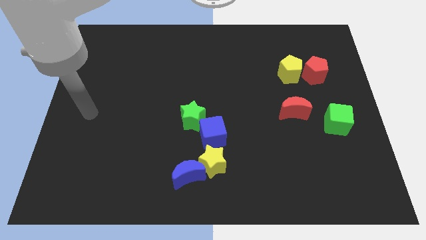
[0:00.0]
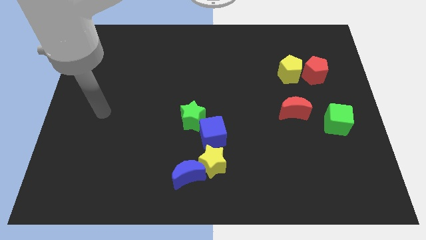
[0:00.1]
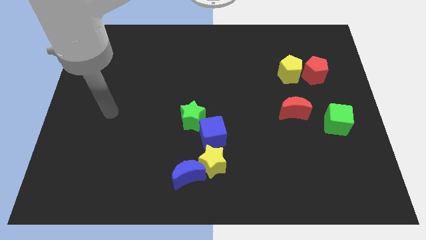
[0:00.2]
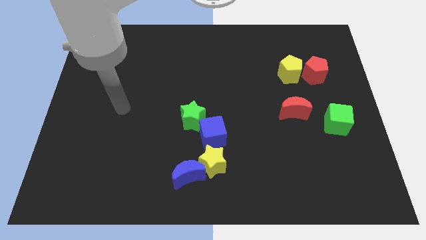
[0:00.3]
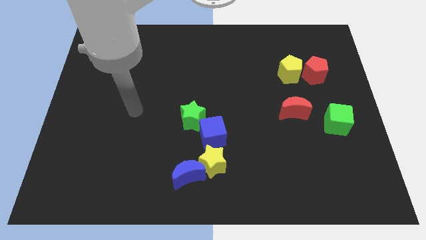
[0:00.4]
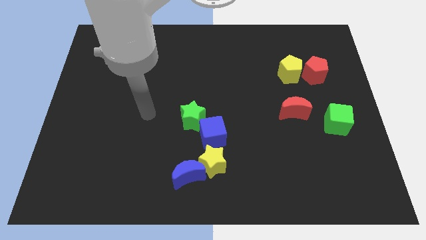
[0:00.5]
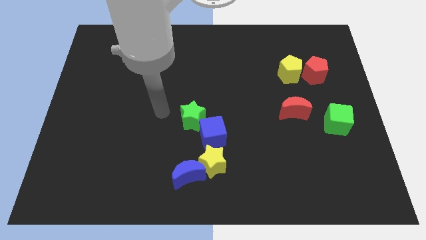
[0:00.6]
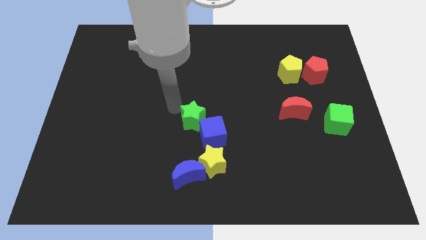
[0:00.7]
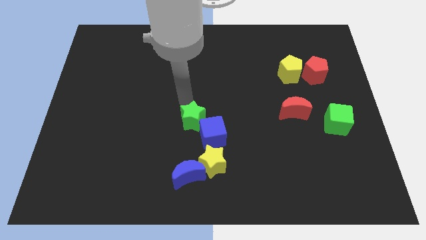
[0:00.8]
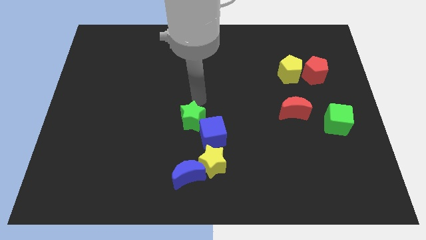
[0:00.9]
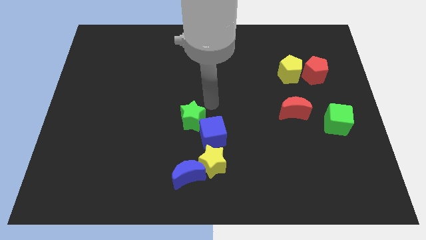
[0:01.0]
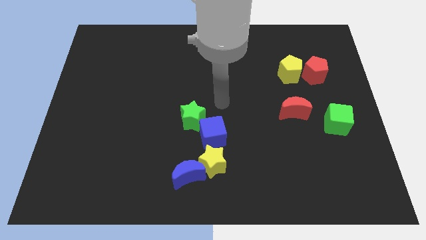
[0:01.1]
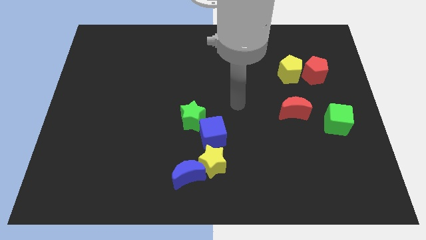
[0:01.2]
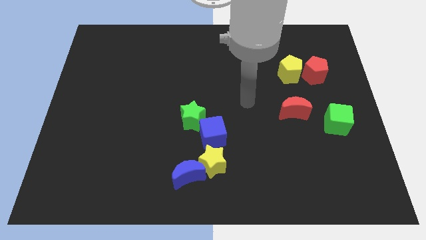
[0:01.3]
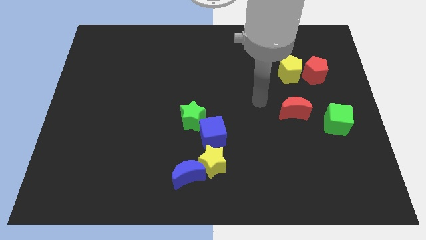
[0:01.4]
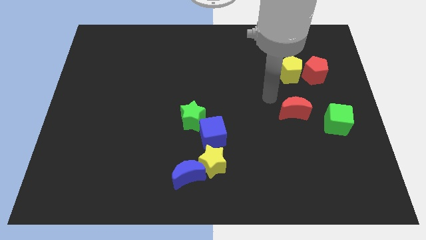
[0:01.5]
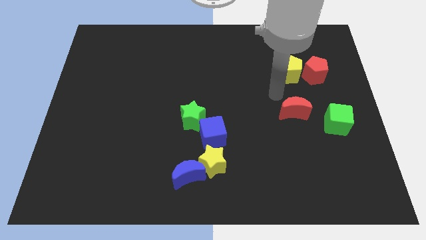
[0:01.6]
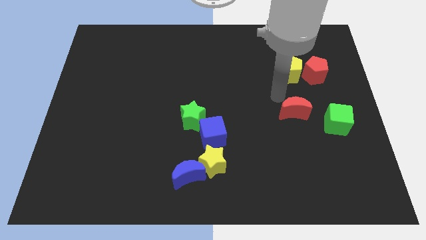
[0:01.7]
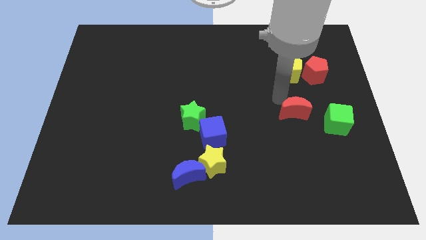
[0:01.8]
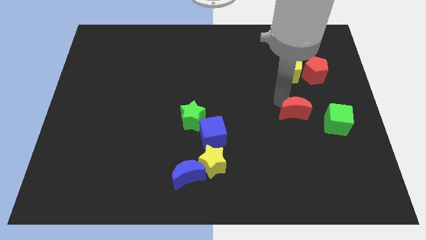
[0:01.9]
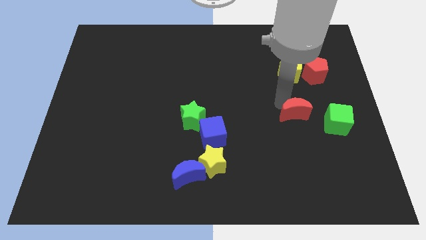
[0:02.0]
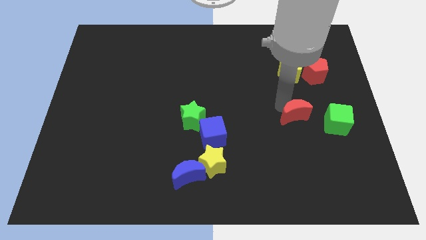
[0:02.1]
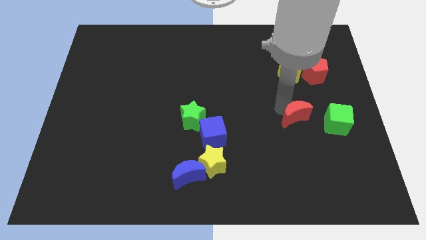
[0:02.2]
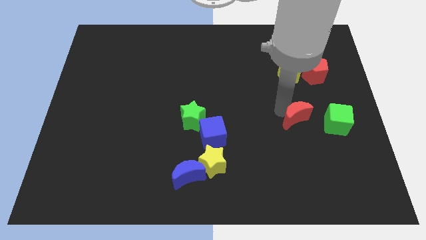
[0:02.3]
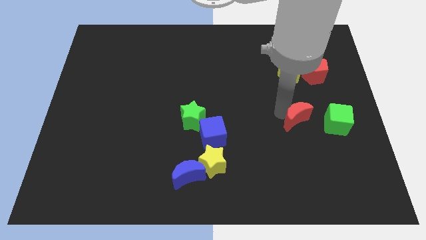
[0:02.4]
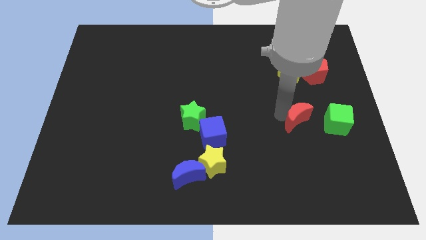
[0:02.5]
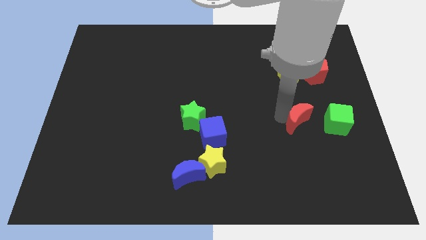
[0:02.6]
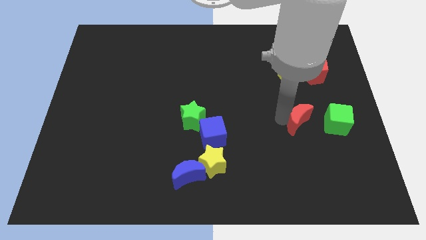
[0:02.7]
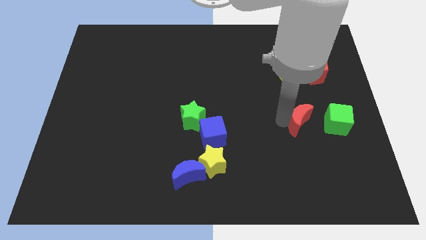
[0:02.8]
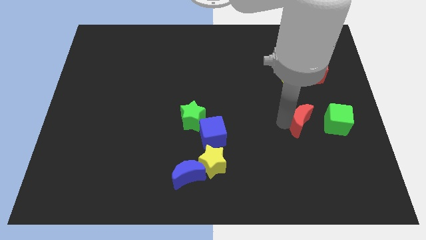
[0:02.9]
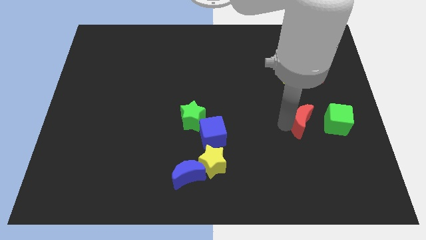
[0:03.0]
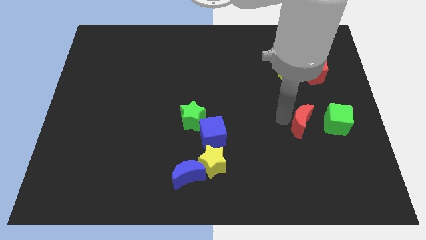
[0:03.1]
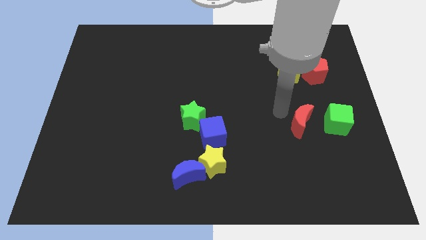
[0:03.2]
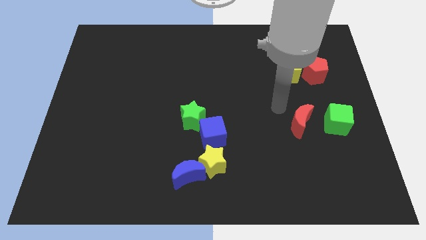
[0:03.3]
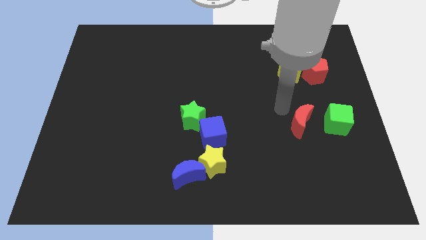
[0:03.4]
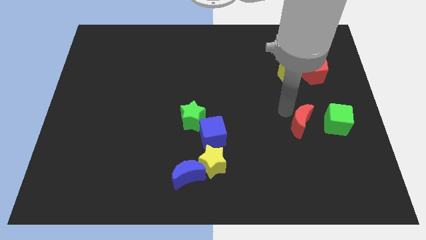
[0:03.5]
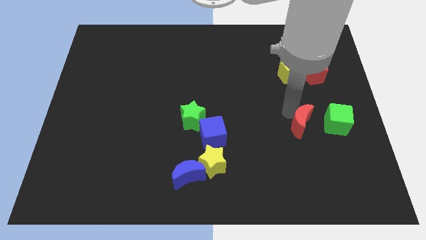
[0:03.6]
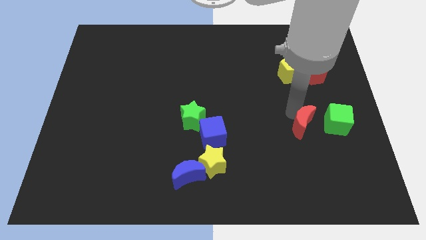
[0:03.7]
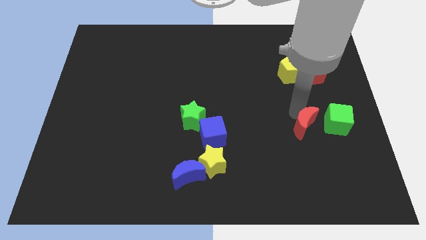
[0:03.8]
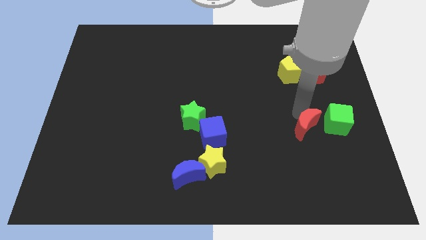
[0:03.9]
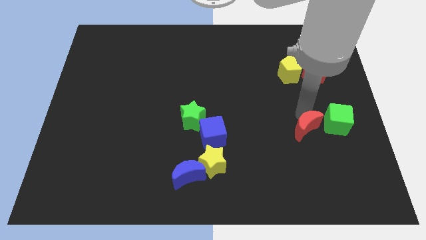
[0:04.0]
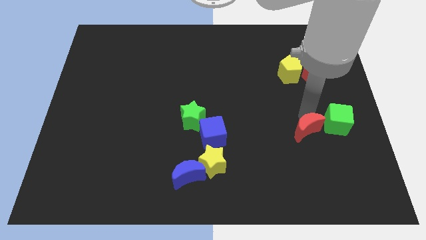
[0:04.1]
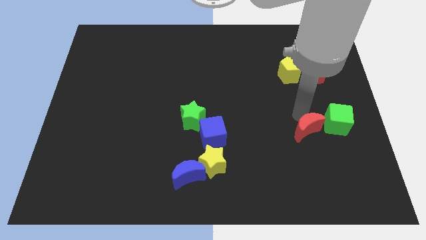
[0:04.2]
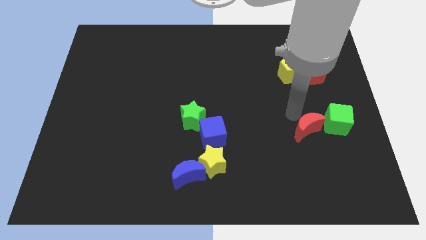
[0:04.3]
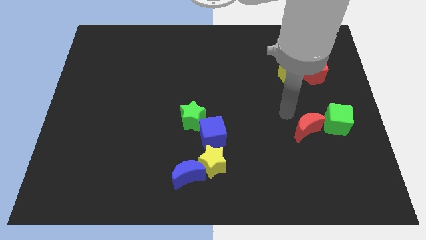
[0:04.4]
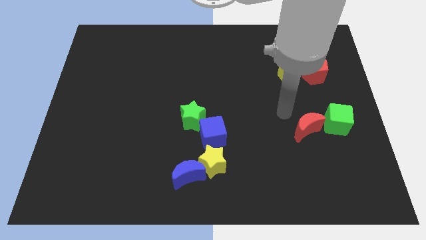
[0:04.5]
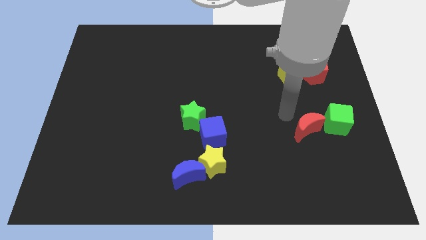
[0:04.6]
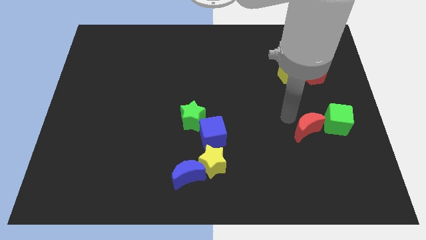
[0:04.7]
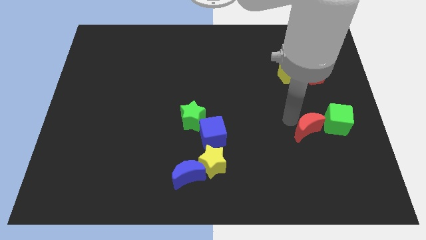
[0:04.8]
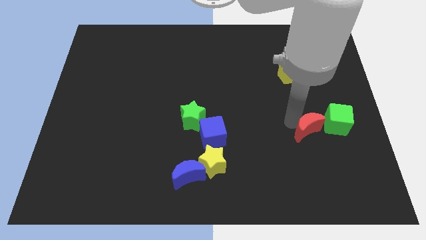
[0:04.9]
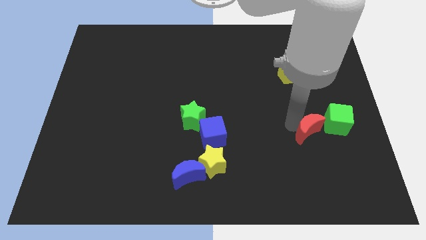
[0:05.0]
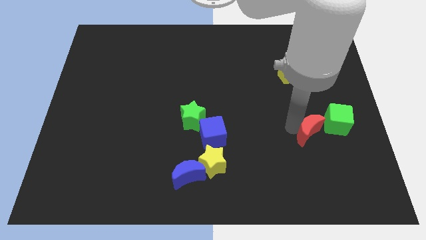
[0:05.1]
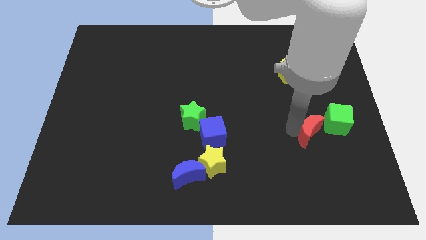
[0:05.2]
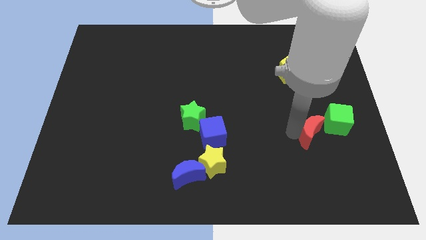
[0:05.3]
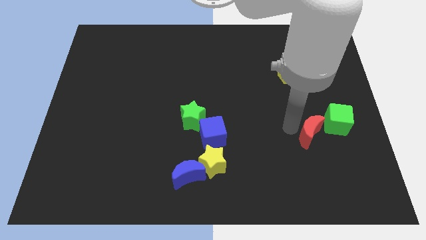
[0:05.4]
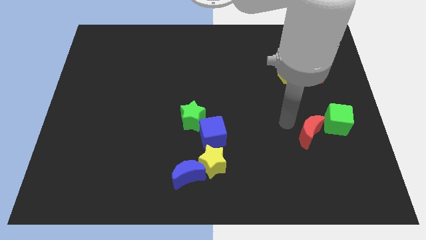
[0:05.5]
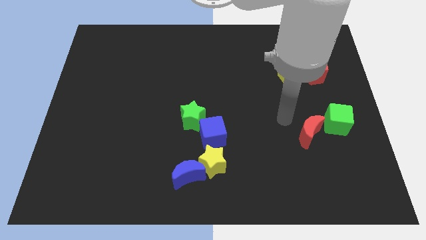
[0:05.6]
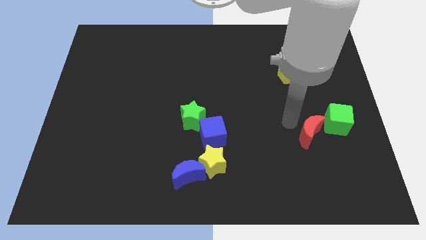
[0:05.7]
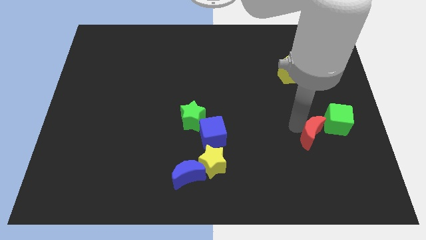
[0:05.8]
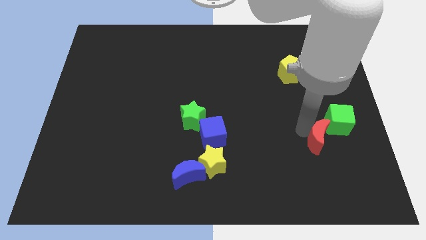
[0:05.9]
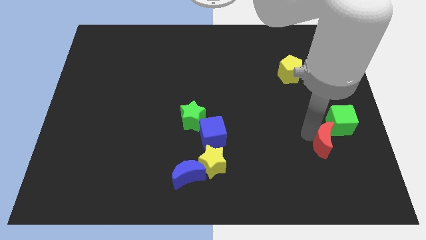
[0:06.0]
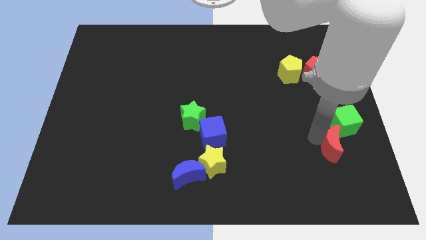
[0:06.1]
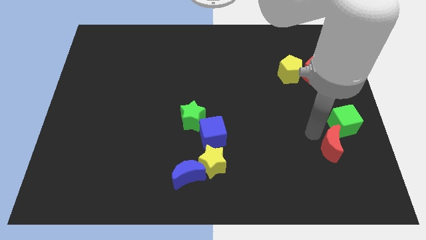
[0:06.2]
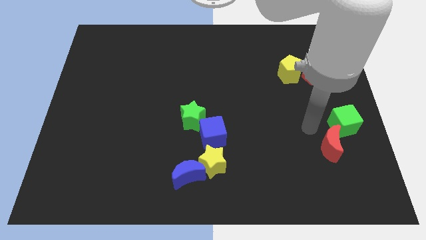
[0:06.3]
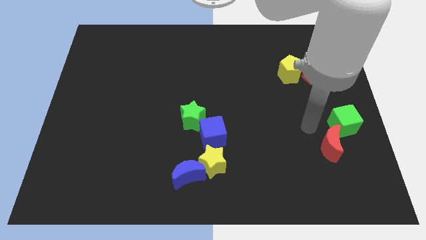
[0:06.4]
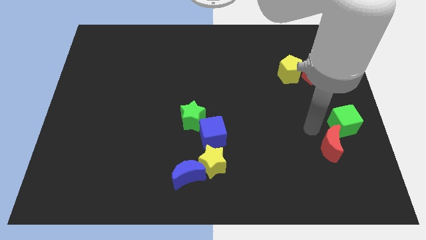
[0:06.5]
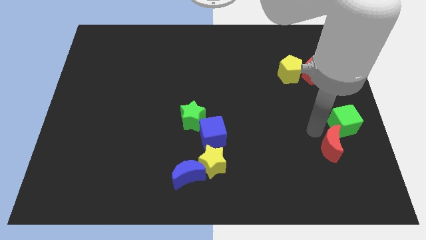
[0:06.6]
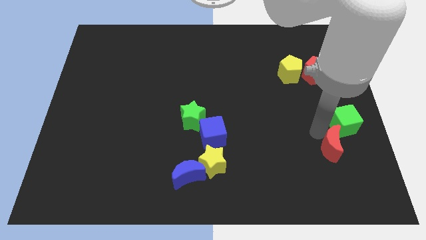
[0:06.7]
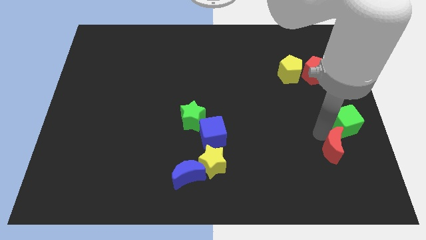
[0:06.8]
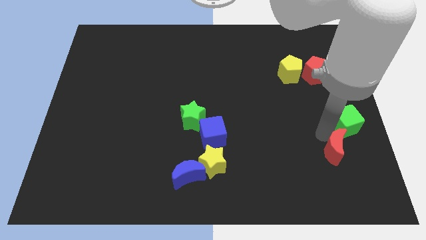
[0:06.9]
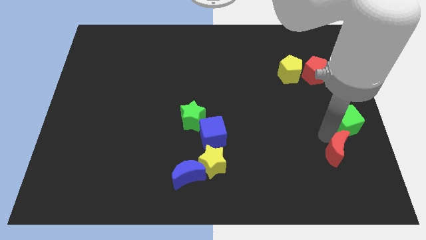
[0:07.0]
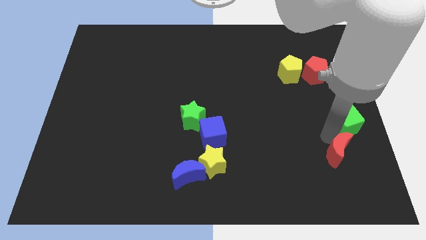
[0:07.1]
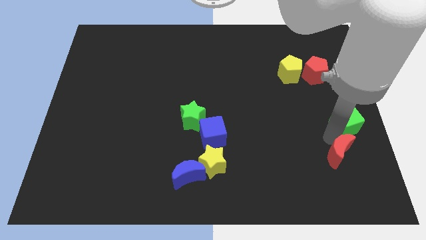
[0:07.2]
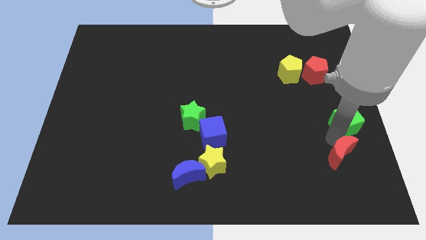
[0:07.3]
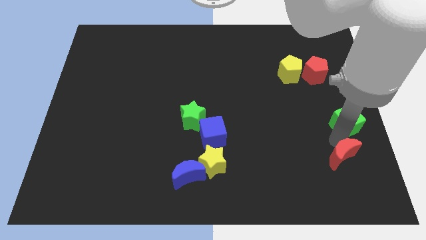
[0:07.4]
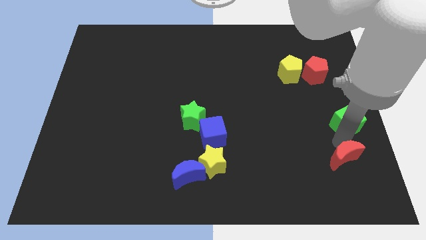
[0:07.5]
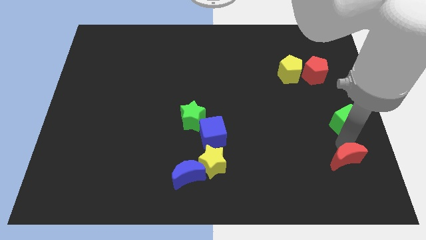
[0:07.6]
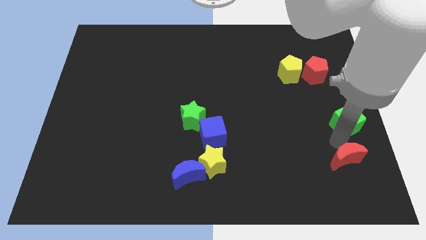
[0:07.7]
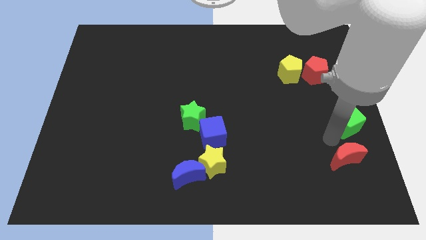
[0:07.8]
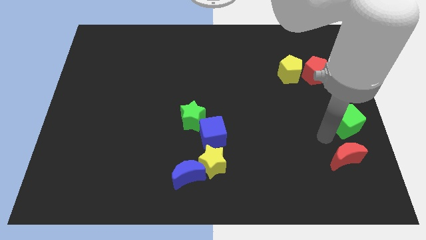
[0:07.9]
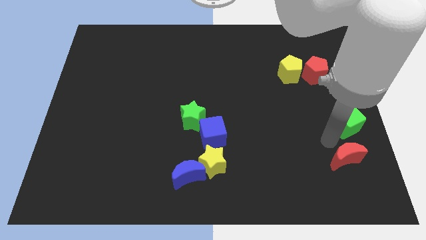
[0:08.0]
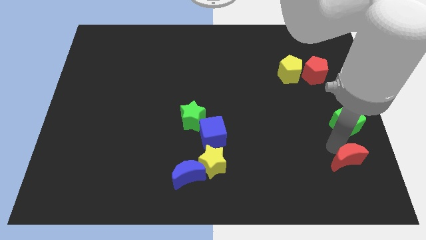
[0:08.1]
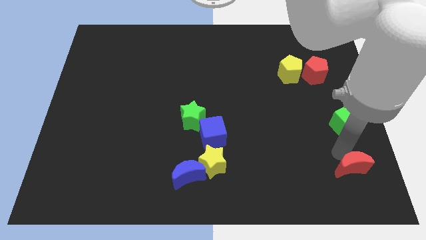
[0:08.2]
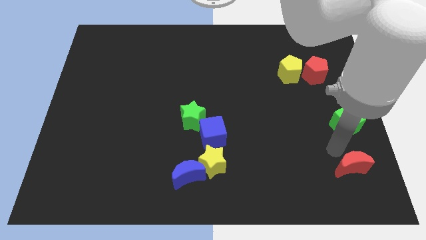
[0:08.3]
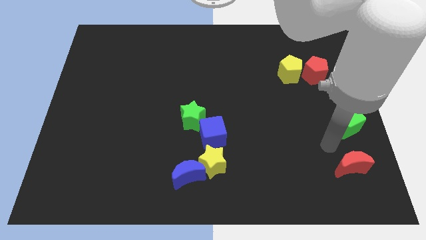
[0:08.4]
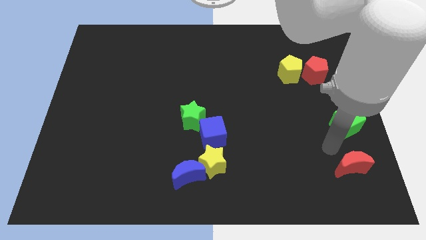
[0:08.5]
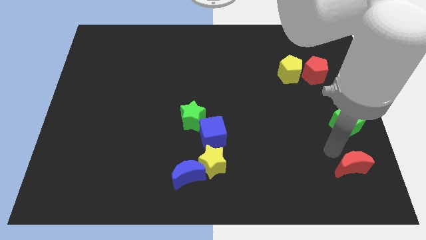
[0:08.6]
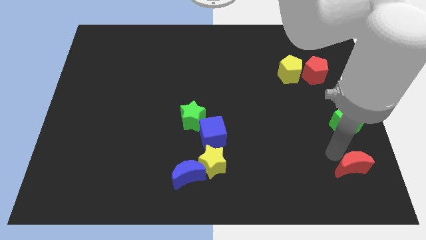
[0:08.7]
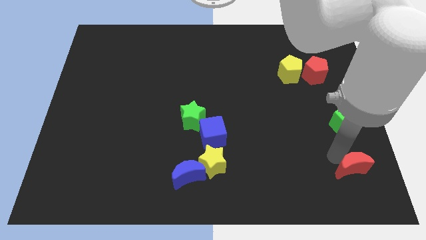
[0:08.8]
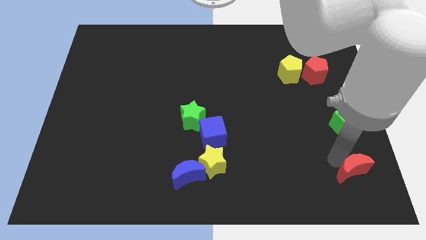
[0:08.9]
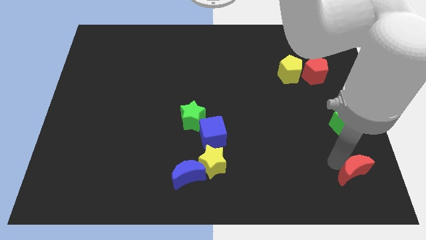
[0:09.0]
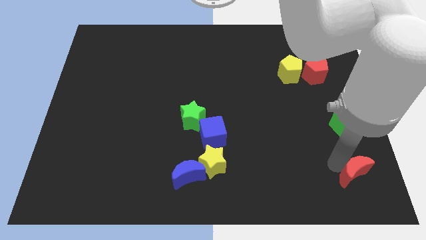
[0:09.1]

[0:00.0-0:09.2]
push the red moon to the bottom right
